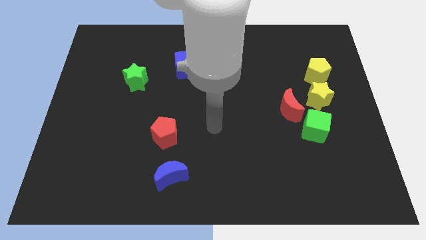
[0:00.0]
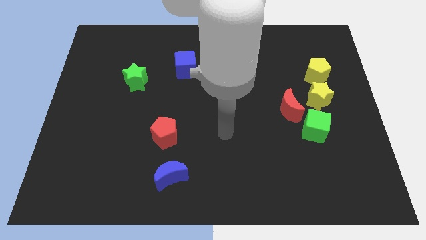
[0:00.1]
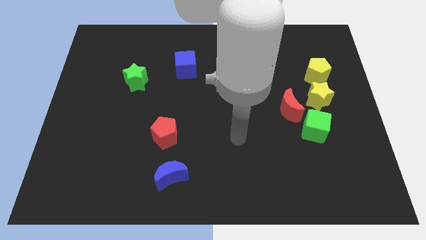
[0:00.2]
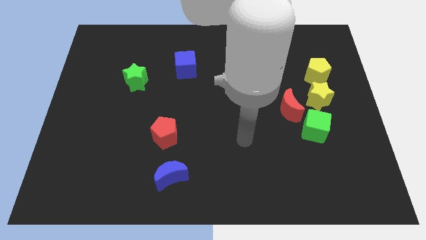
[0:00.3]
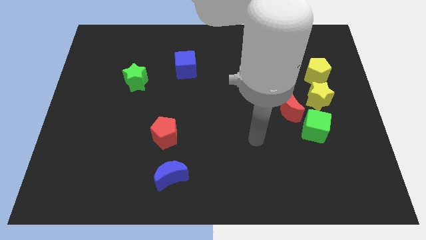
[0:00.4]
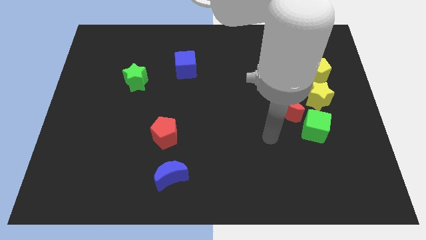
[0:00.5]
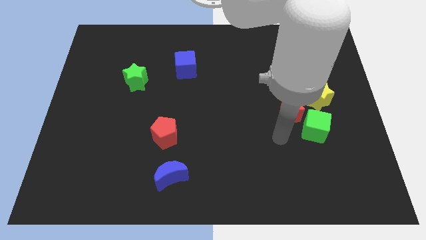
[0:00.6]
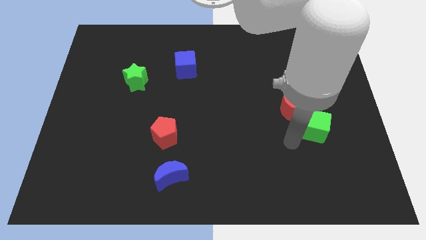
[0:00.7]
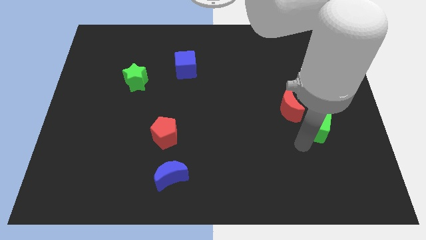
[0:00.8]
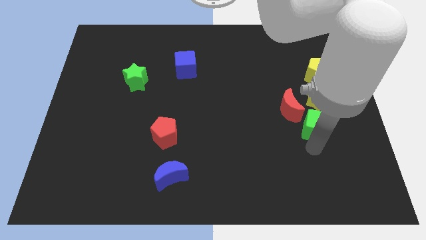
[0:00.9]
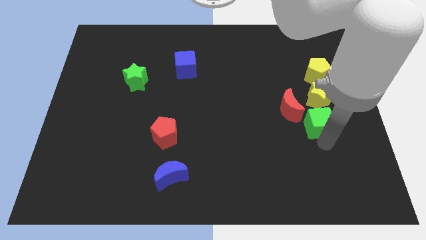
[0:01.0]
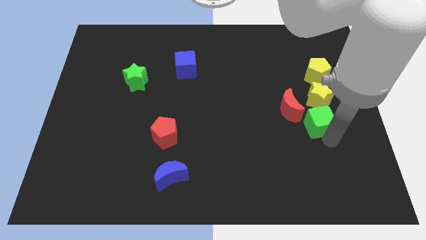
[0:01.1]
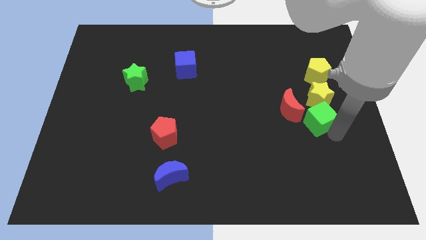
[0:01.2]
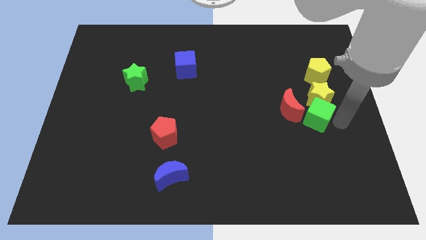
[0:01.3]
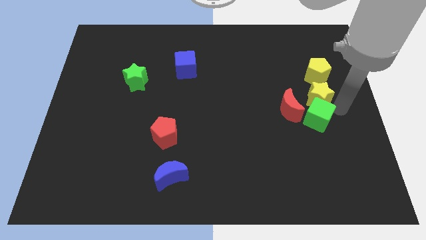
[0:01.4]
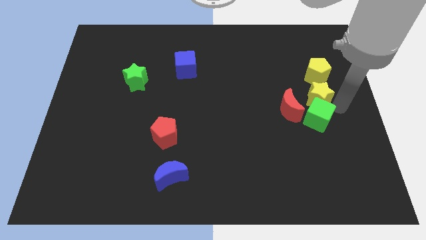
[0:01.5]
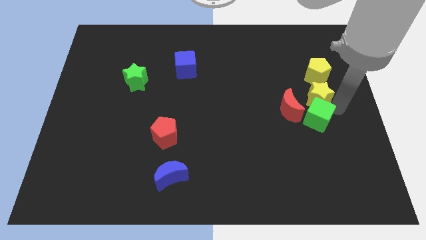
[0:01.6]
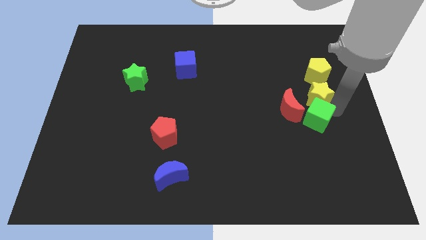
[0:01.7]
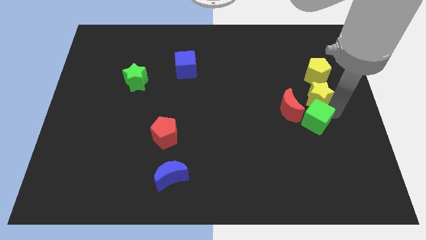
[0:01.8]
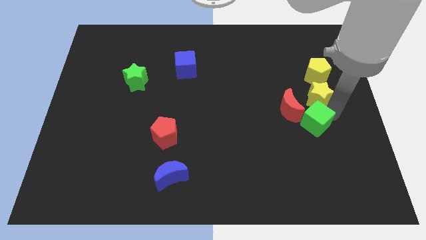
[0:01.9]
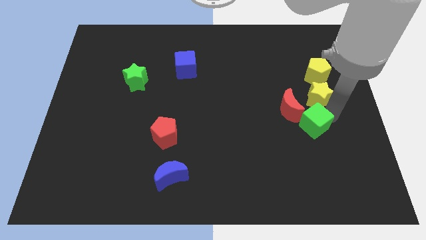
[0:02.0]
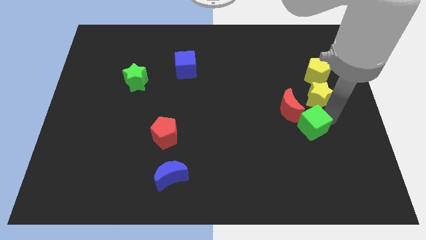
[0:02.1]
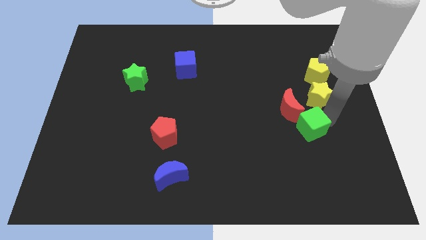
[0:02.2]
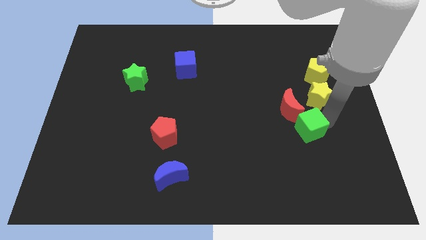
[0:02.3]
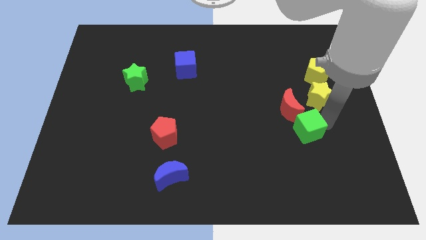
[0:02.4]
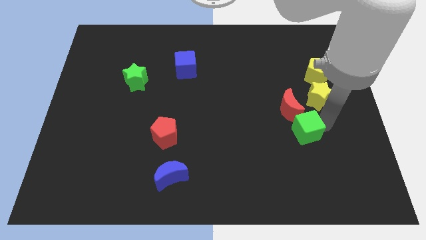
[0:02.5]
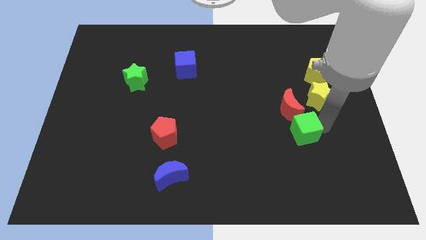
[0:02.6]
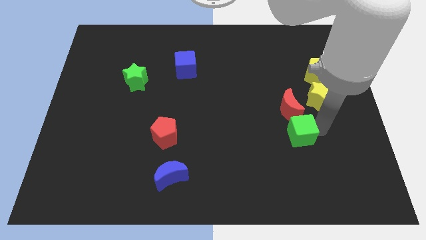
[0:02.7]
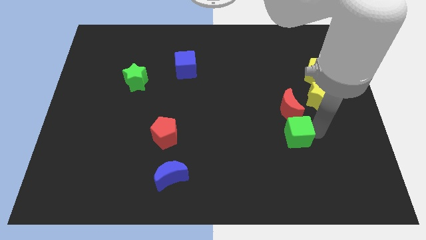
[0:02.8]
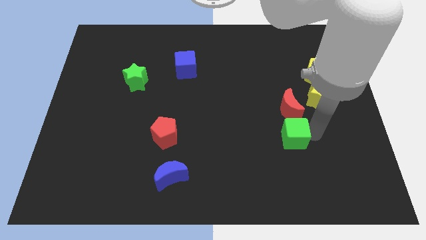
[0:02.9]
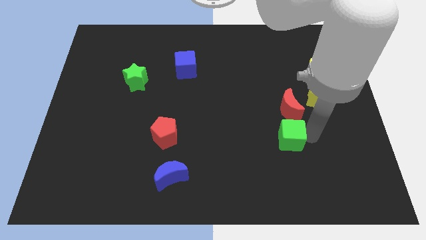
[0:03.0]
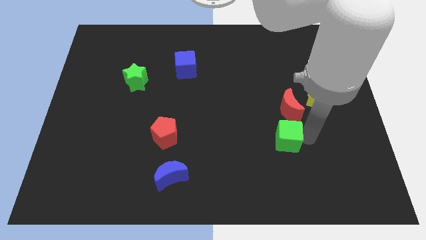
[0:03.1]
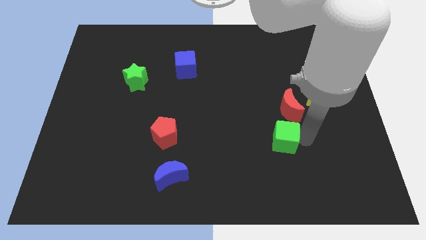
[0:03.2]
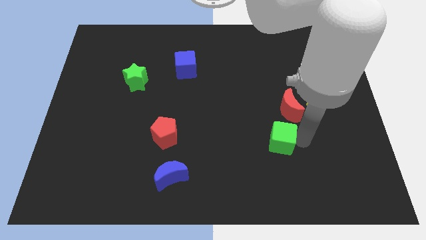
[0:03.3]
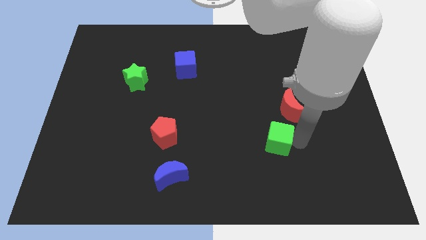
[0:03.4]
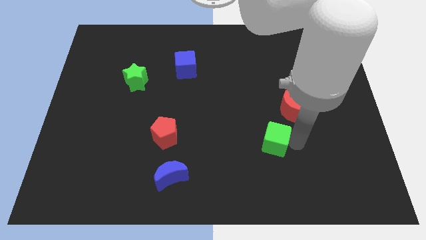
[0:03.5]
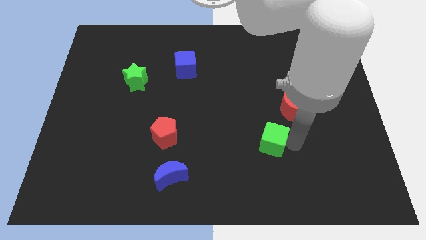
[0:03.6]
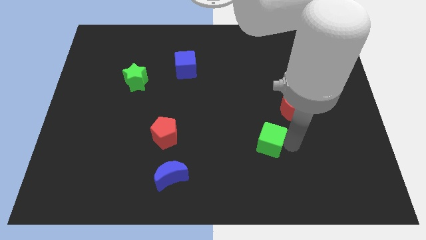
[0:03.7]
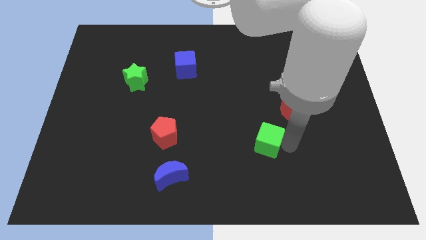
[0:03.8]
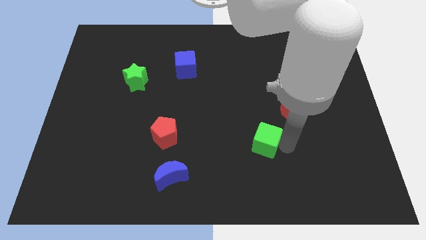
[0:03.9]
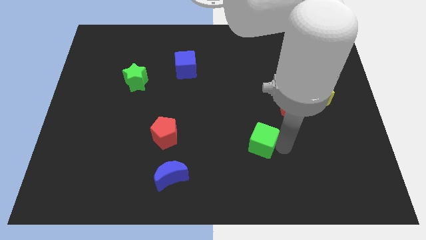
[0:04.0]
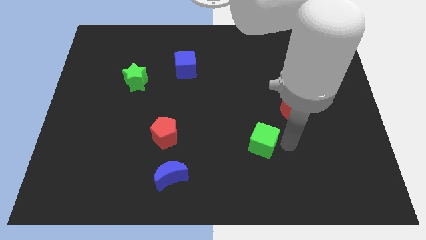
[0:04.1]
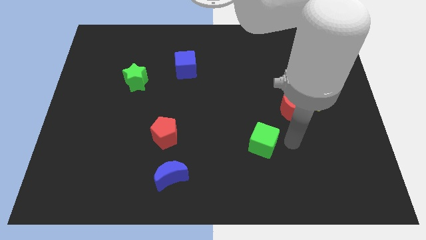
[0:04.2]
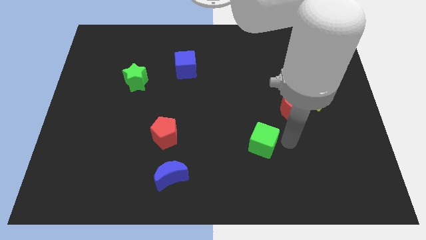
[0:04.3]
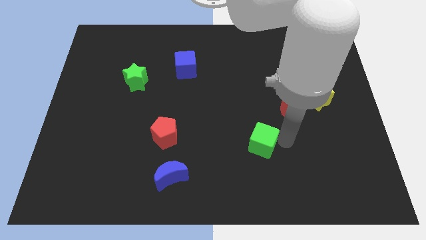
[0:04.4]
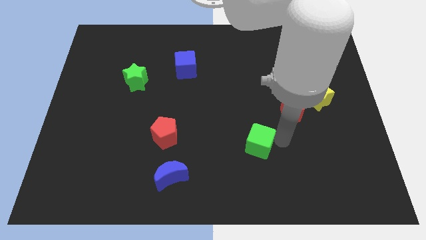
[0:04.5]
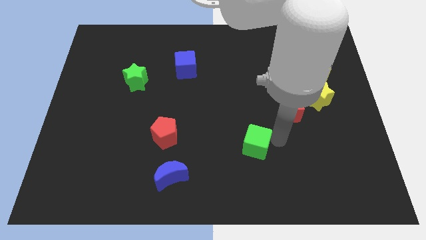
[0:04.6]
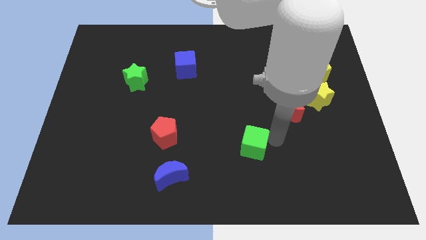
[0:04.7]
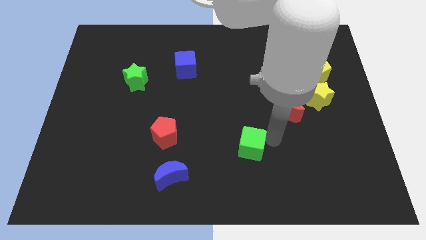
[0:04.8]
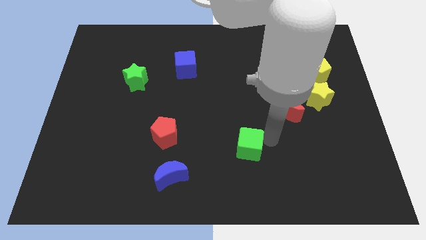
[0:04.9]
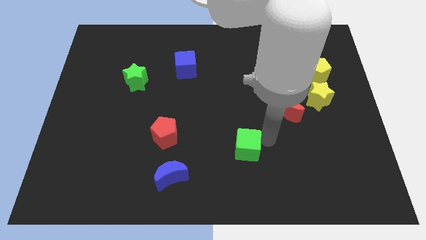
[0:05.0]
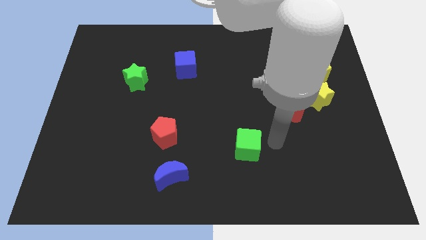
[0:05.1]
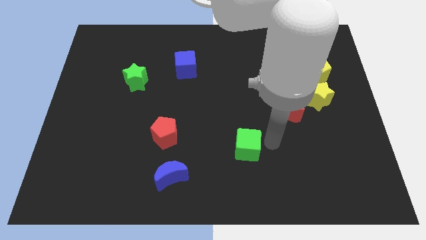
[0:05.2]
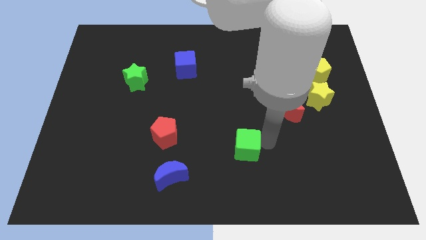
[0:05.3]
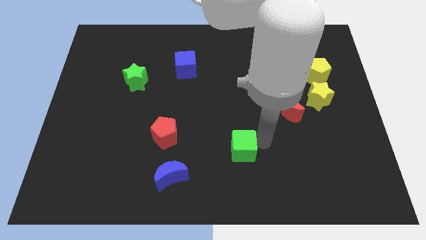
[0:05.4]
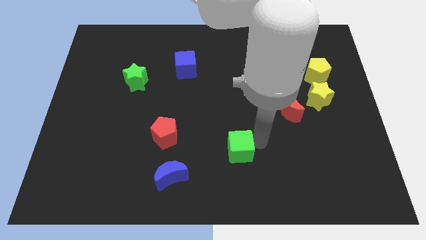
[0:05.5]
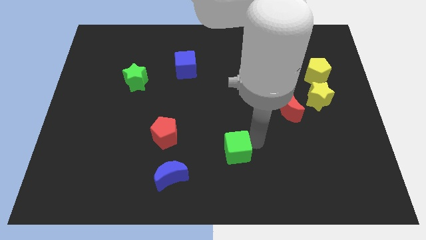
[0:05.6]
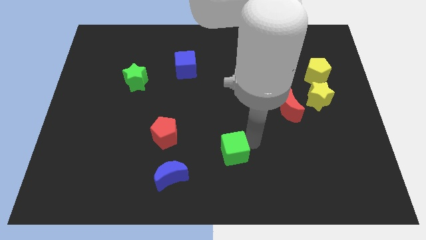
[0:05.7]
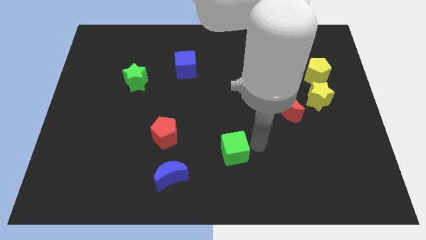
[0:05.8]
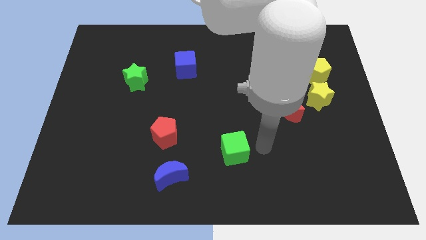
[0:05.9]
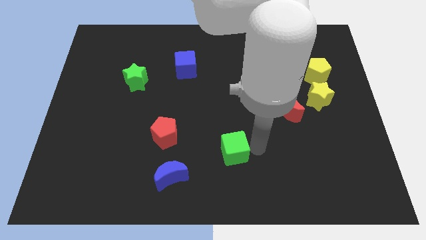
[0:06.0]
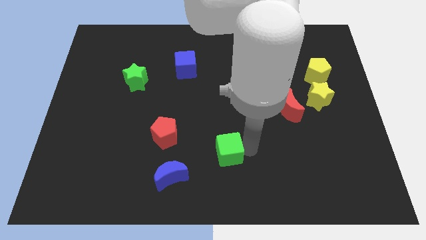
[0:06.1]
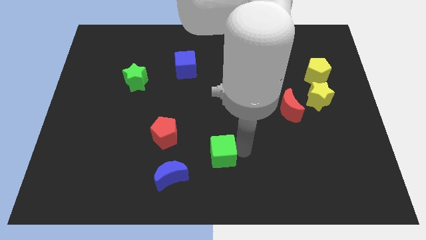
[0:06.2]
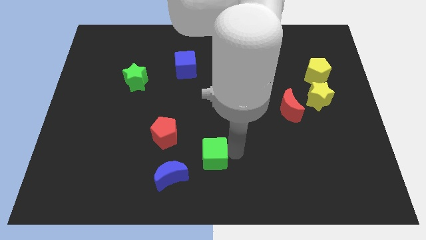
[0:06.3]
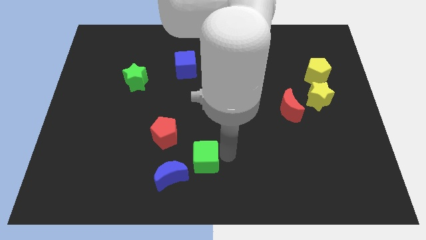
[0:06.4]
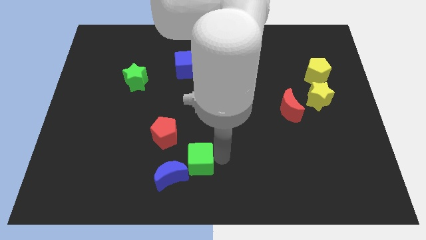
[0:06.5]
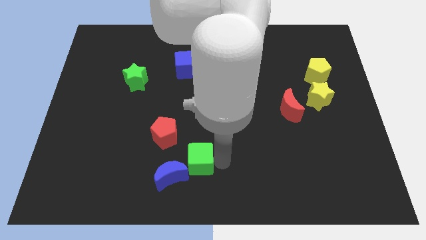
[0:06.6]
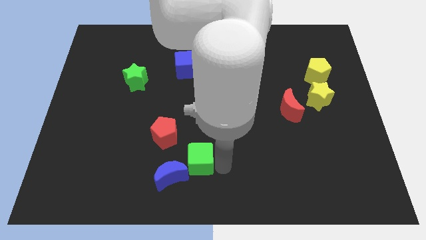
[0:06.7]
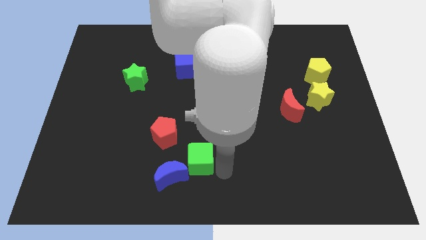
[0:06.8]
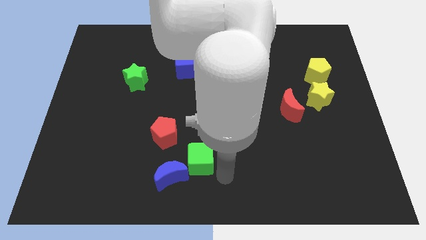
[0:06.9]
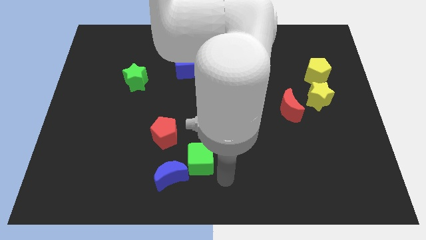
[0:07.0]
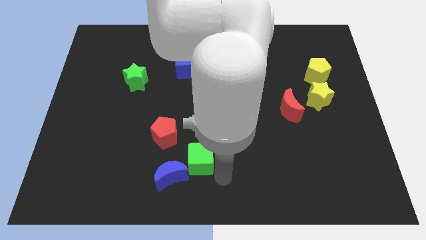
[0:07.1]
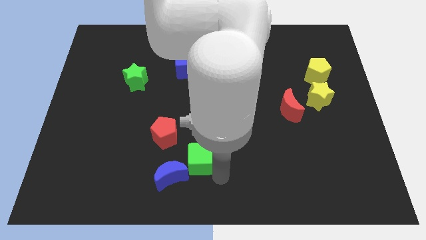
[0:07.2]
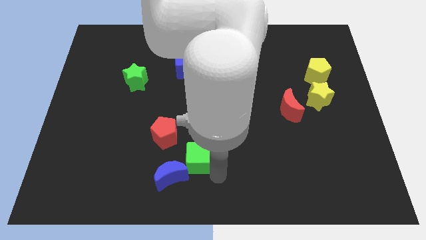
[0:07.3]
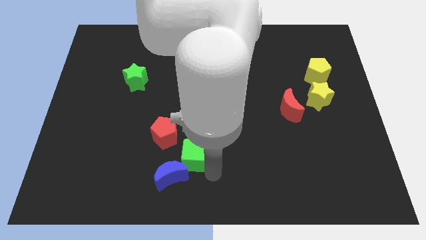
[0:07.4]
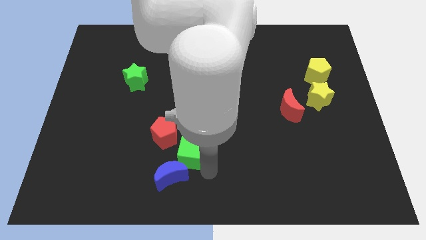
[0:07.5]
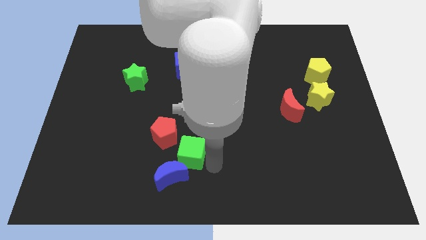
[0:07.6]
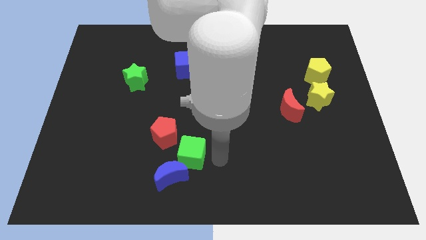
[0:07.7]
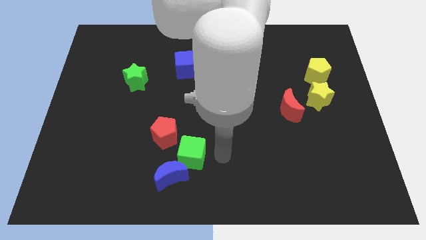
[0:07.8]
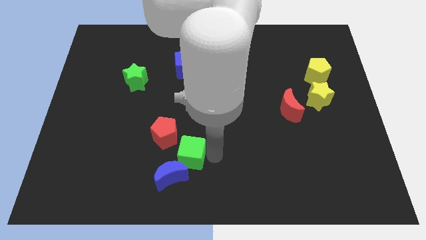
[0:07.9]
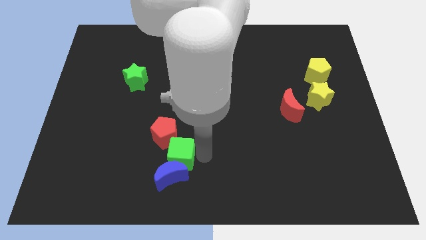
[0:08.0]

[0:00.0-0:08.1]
put the green cube to the top left of the blue moon
